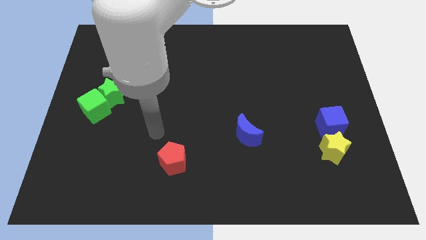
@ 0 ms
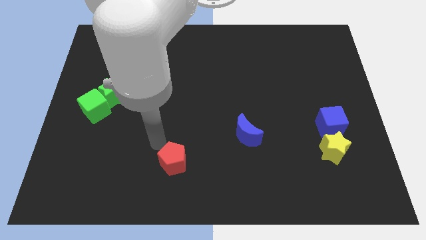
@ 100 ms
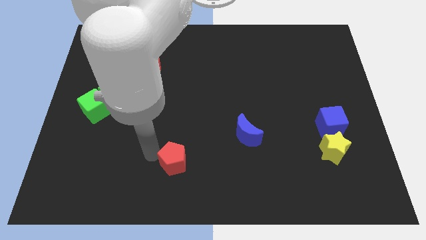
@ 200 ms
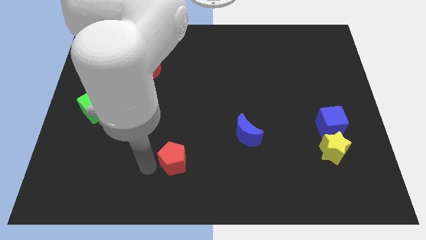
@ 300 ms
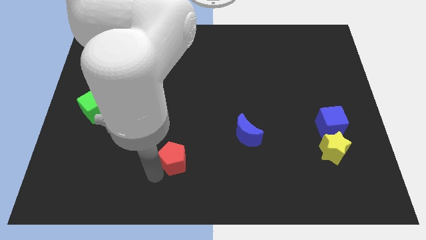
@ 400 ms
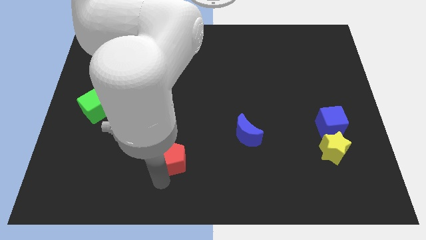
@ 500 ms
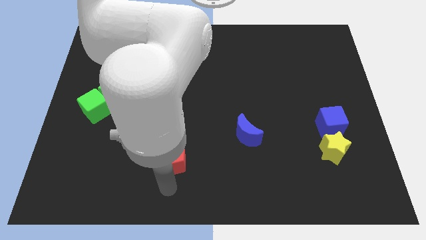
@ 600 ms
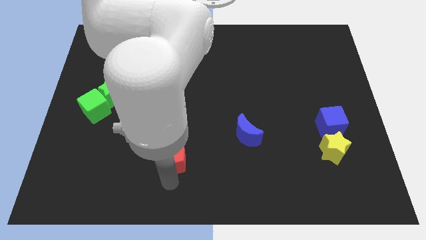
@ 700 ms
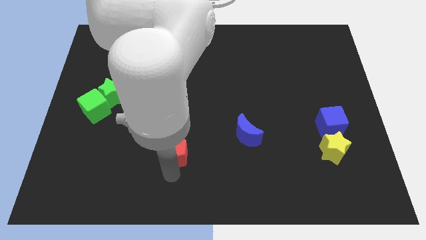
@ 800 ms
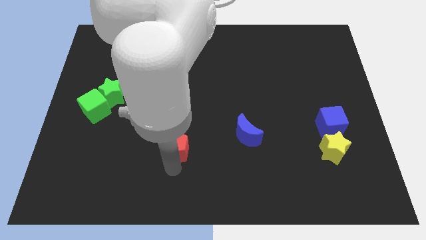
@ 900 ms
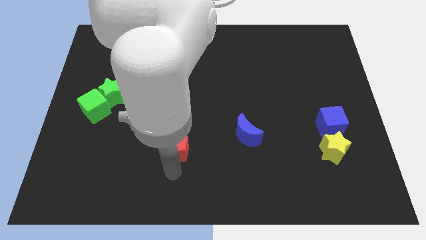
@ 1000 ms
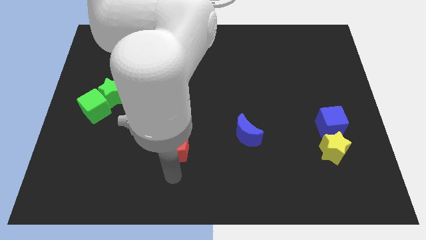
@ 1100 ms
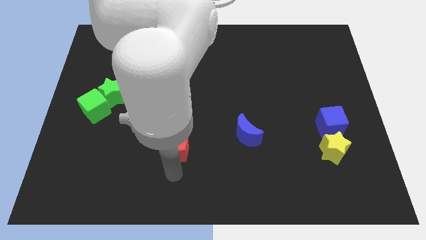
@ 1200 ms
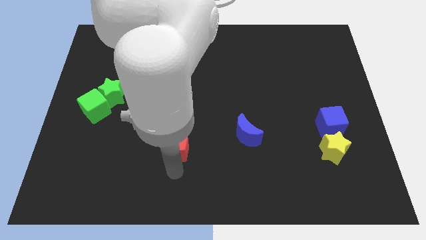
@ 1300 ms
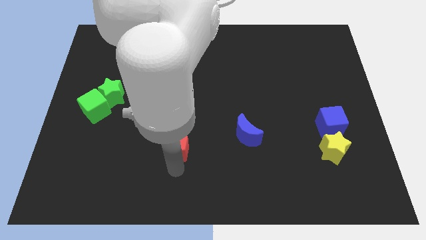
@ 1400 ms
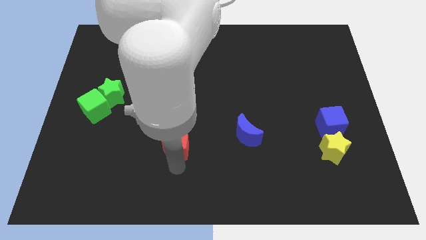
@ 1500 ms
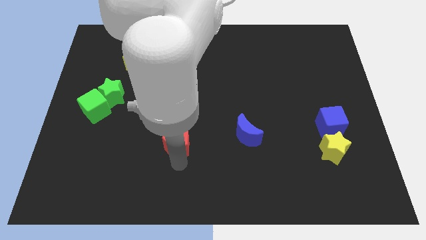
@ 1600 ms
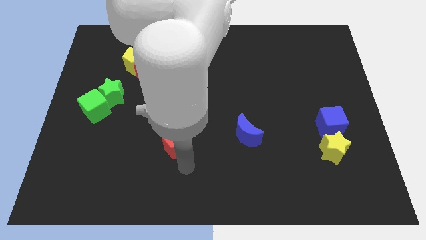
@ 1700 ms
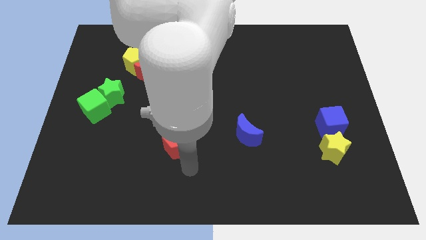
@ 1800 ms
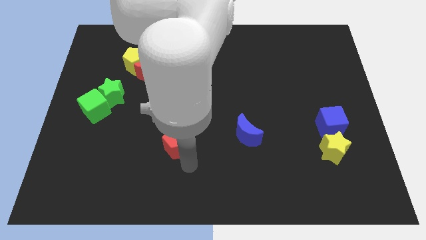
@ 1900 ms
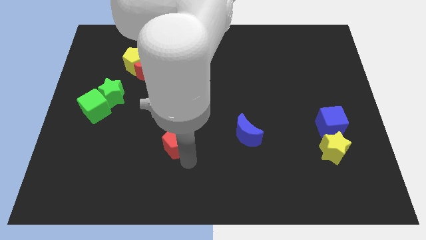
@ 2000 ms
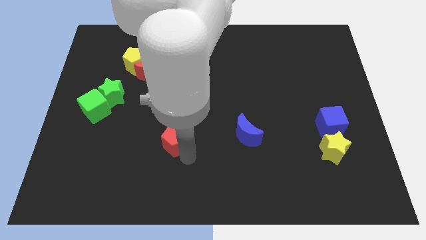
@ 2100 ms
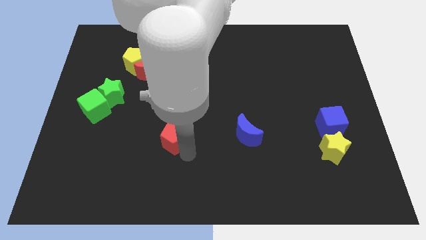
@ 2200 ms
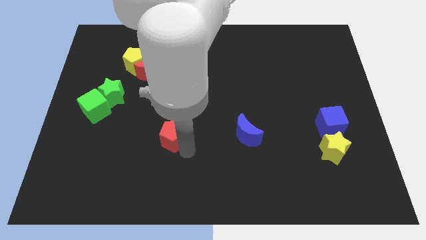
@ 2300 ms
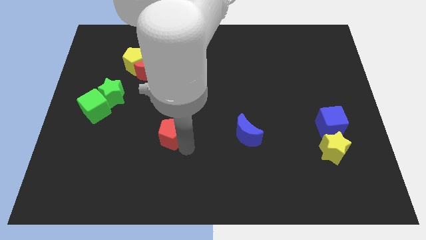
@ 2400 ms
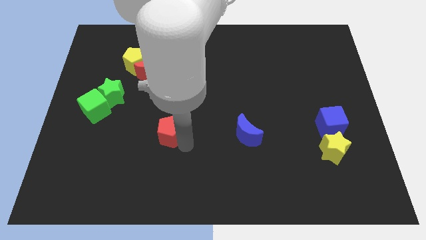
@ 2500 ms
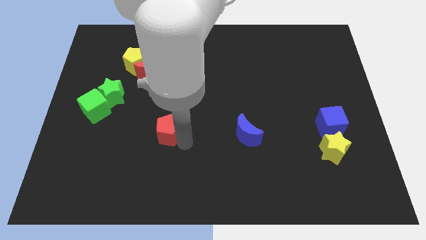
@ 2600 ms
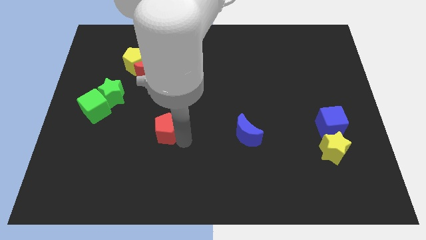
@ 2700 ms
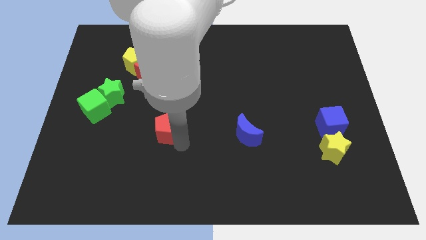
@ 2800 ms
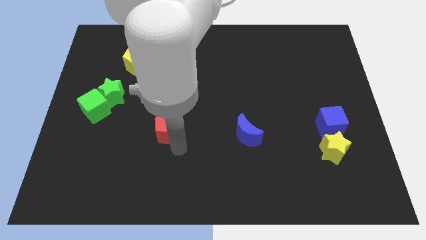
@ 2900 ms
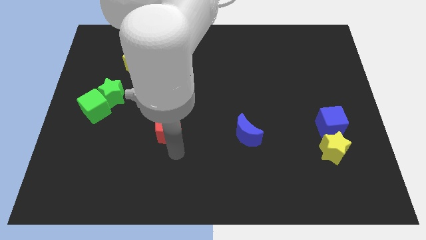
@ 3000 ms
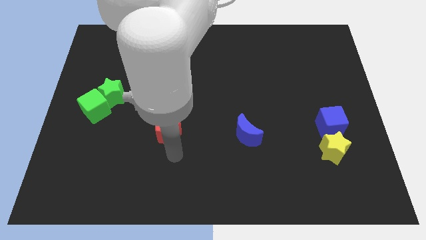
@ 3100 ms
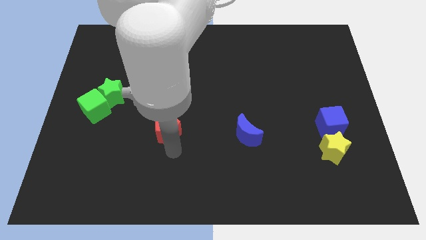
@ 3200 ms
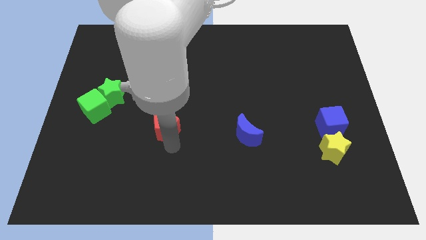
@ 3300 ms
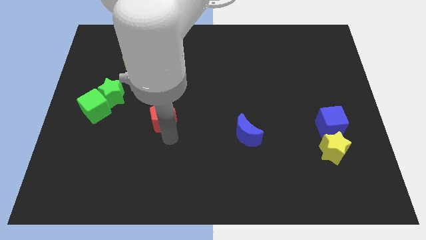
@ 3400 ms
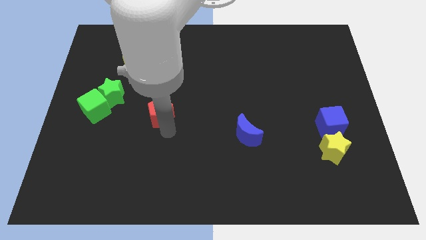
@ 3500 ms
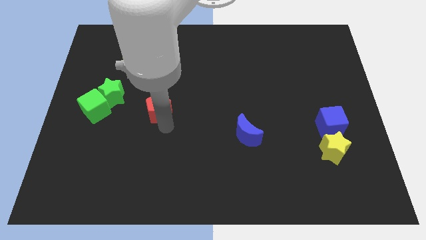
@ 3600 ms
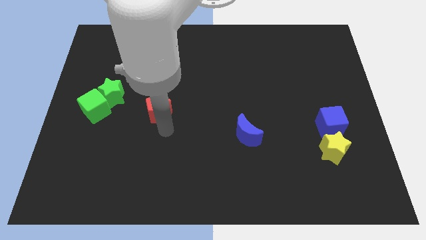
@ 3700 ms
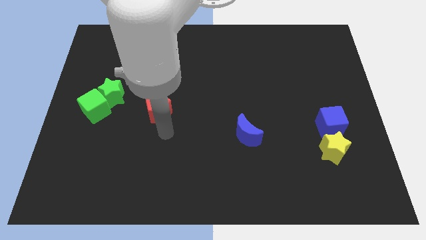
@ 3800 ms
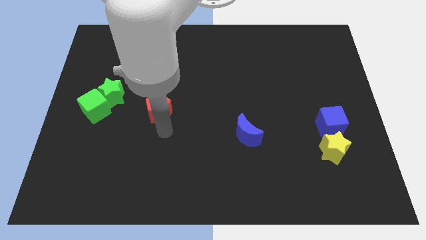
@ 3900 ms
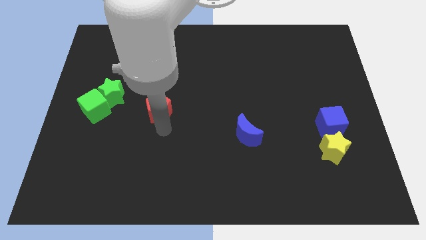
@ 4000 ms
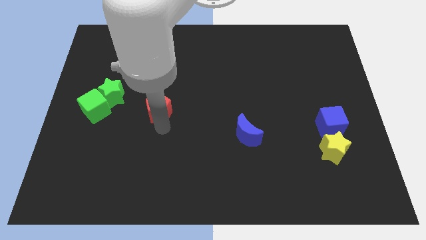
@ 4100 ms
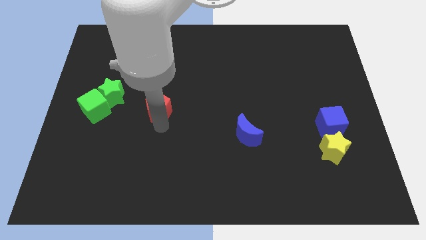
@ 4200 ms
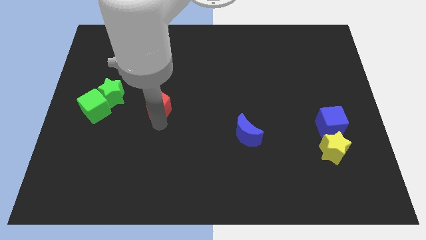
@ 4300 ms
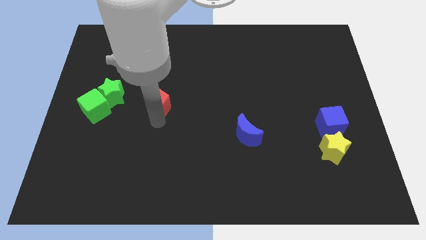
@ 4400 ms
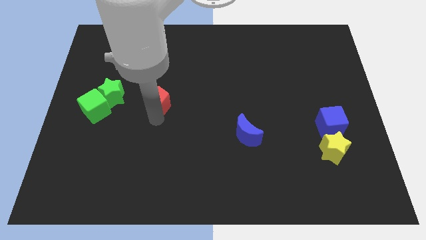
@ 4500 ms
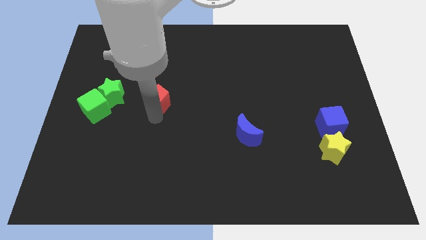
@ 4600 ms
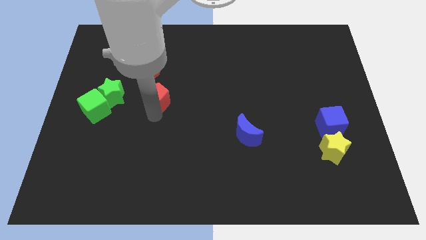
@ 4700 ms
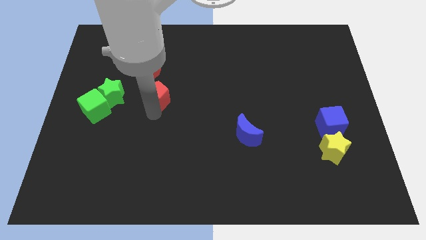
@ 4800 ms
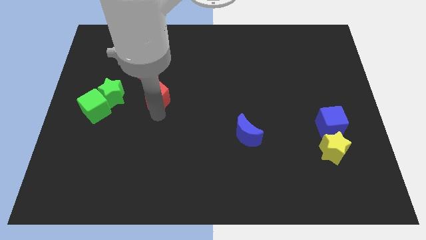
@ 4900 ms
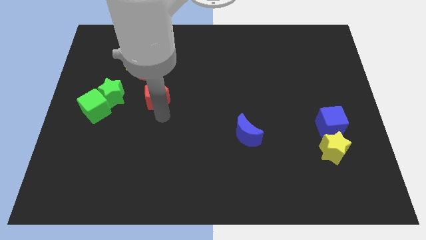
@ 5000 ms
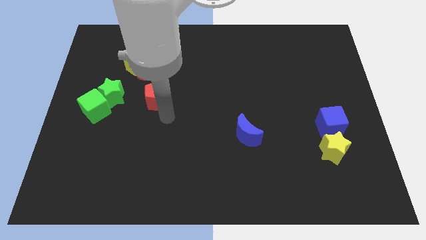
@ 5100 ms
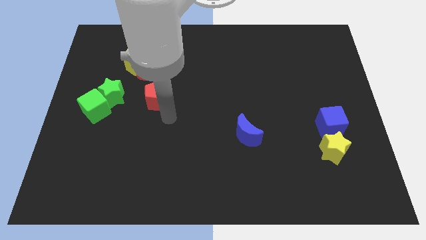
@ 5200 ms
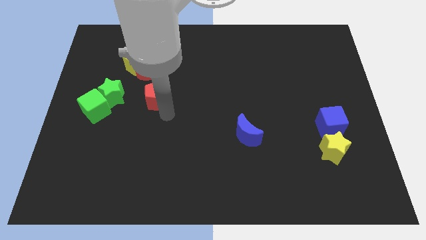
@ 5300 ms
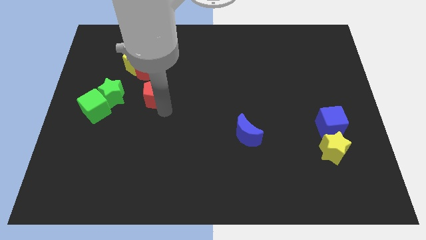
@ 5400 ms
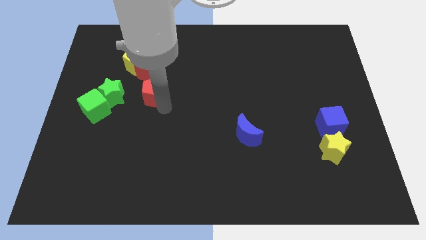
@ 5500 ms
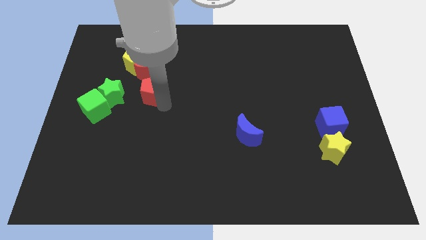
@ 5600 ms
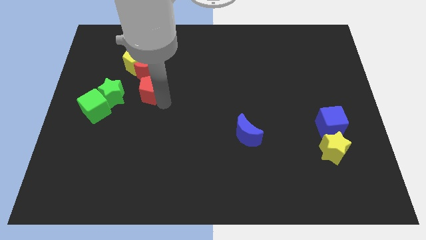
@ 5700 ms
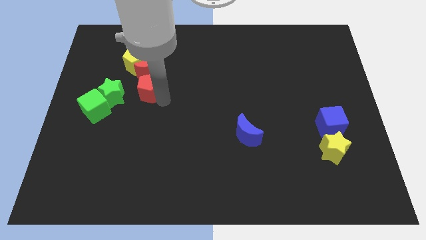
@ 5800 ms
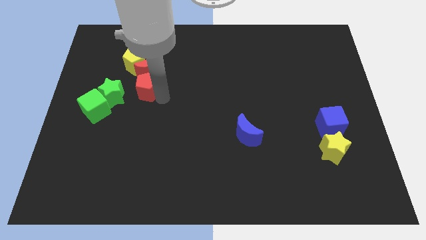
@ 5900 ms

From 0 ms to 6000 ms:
put the red pentagon to the top right of the green star

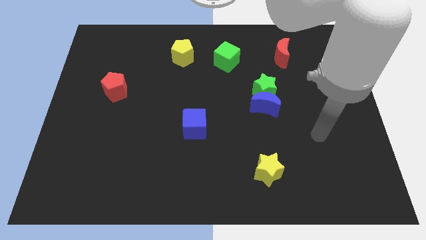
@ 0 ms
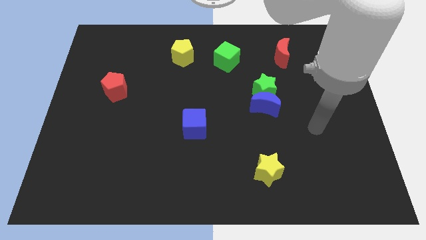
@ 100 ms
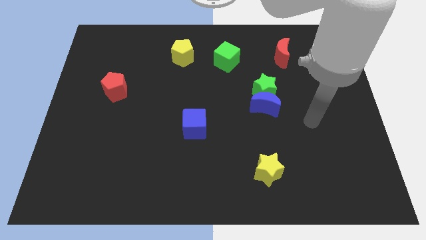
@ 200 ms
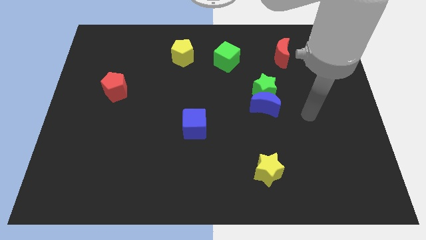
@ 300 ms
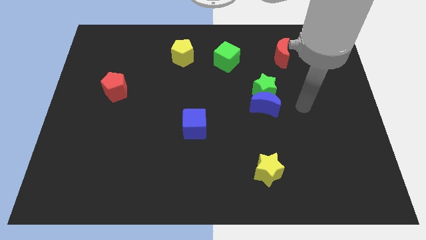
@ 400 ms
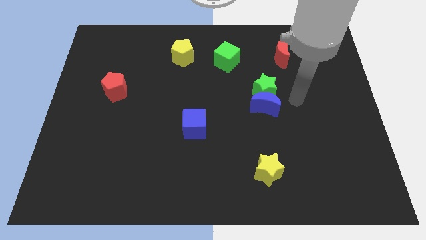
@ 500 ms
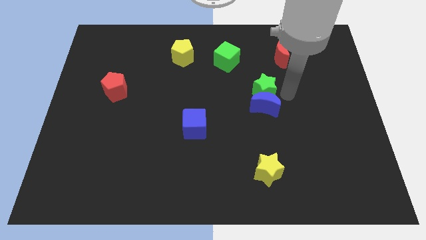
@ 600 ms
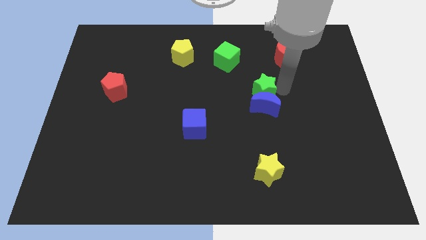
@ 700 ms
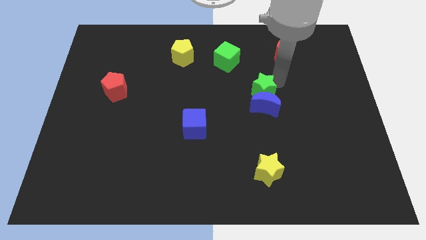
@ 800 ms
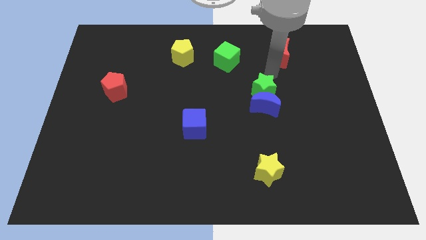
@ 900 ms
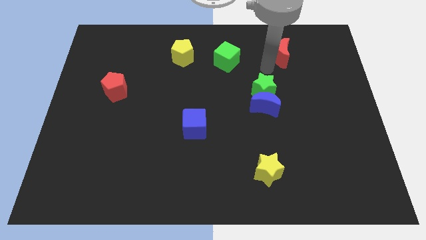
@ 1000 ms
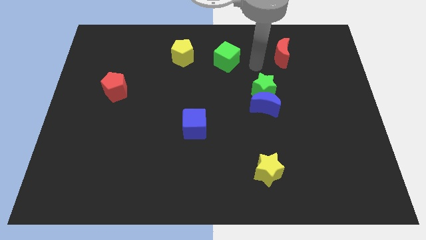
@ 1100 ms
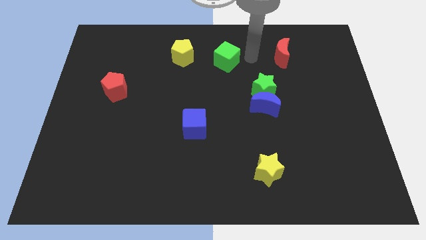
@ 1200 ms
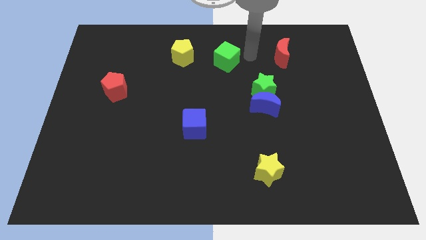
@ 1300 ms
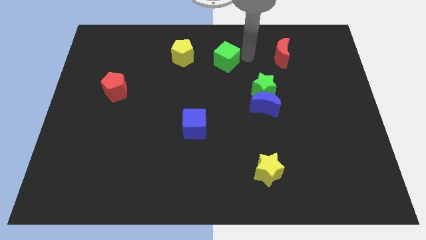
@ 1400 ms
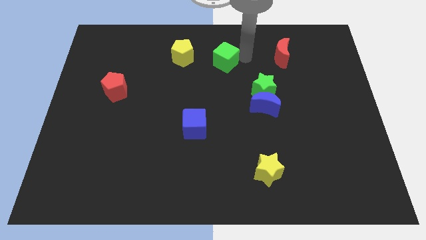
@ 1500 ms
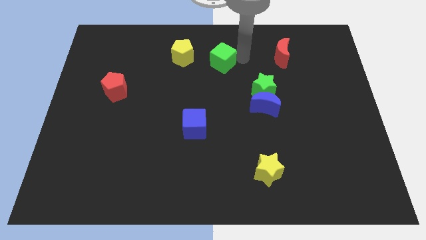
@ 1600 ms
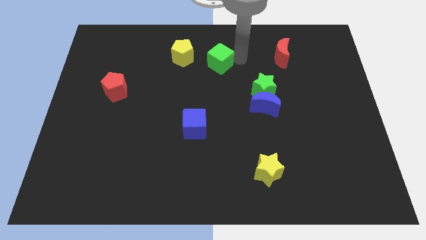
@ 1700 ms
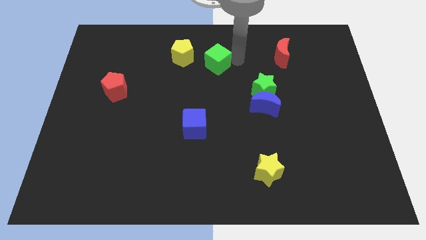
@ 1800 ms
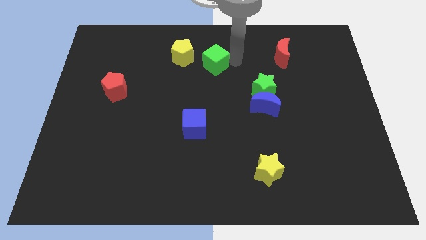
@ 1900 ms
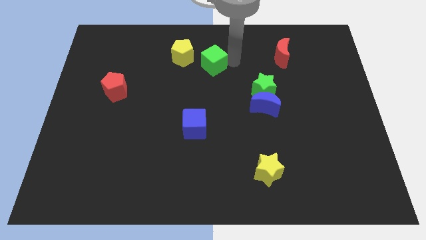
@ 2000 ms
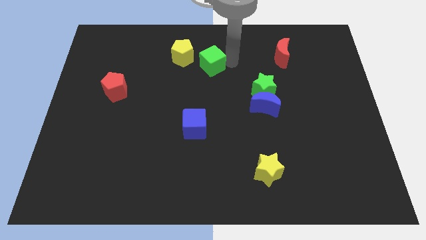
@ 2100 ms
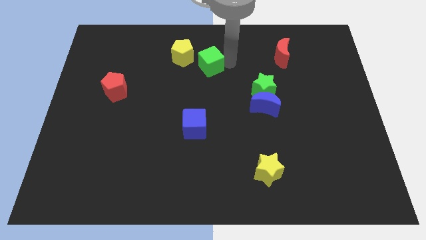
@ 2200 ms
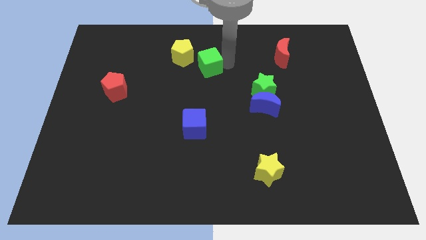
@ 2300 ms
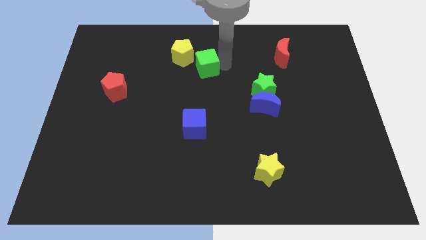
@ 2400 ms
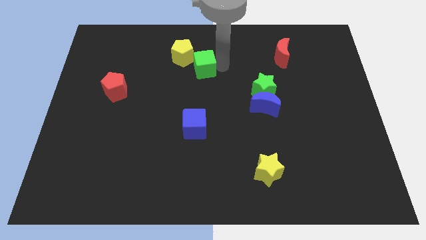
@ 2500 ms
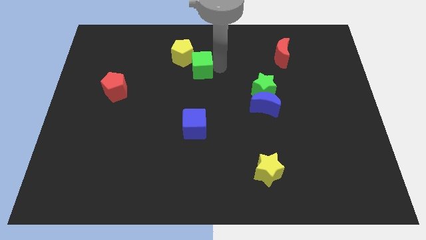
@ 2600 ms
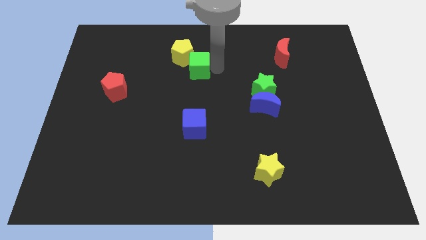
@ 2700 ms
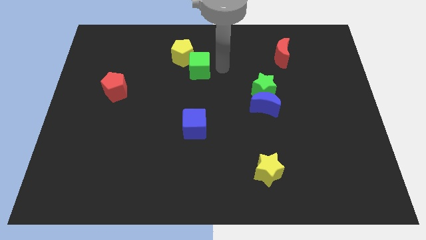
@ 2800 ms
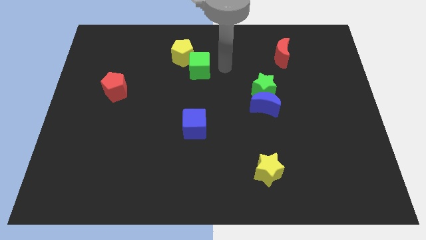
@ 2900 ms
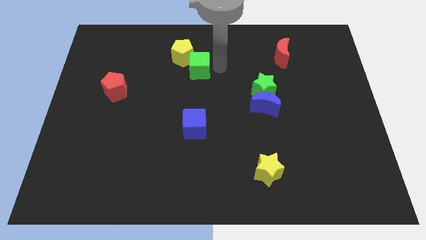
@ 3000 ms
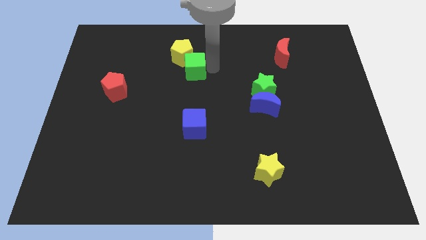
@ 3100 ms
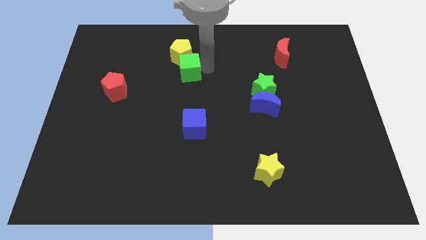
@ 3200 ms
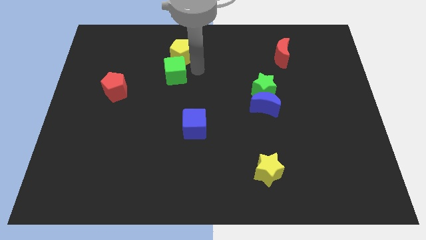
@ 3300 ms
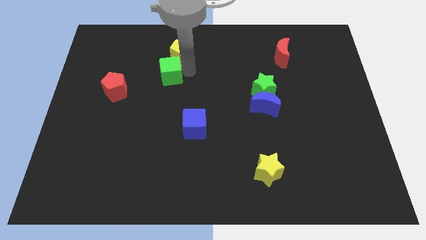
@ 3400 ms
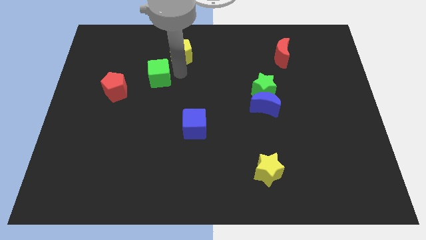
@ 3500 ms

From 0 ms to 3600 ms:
slide the green cube to the top right side of the red pentagon
